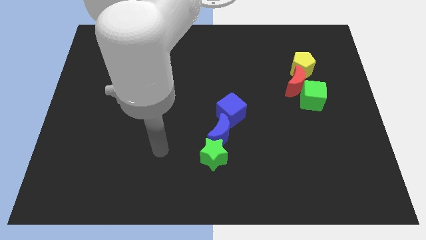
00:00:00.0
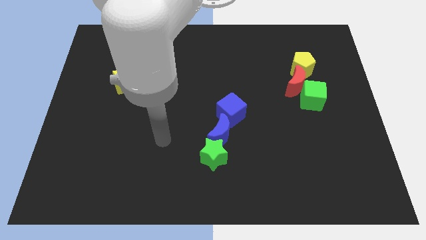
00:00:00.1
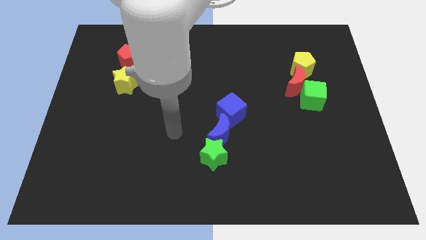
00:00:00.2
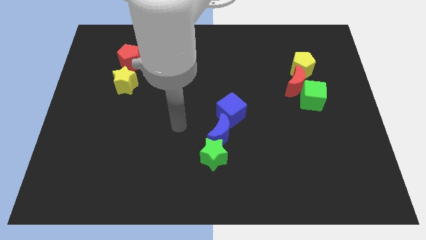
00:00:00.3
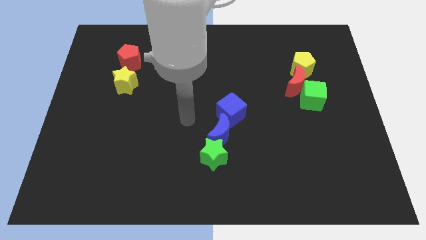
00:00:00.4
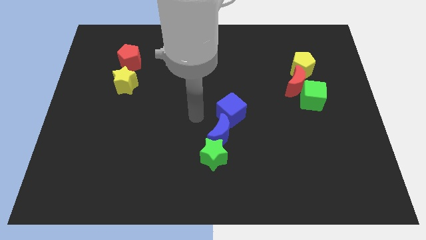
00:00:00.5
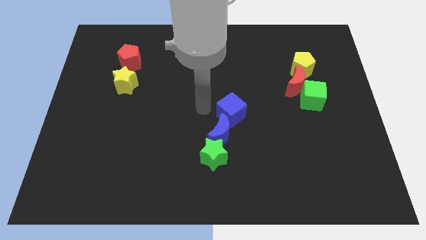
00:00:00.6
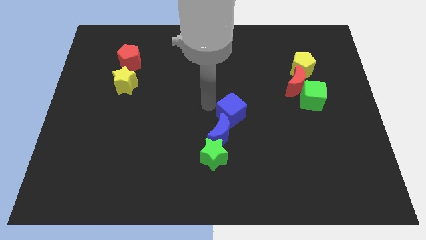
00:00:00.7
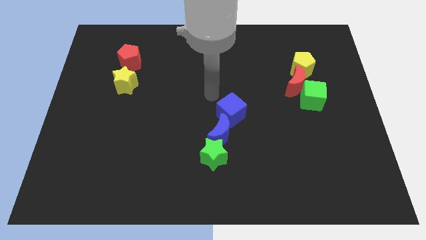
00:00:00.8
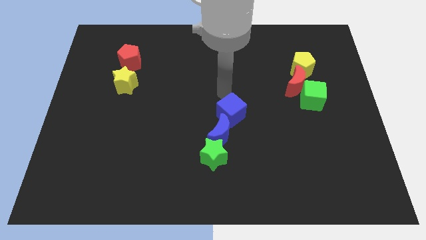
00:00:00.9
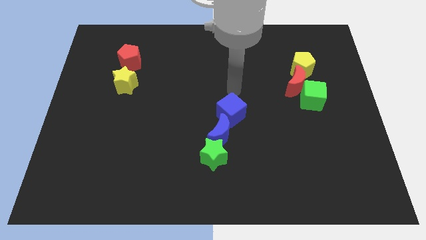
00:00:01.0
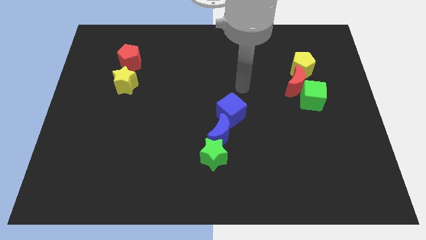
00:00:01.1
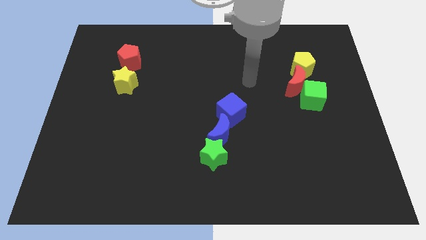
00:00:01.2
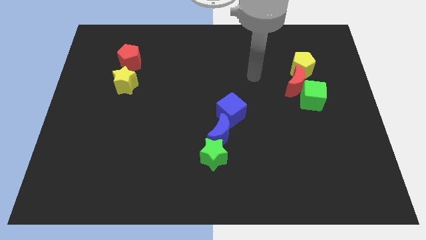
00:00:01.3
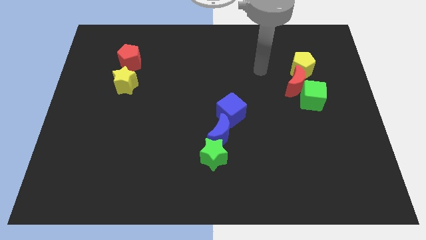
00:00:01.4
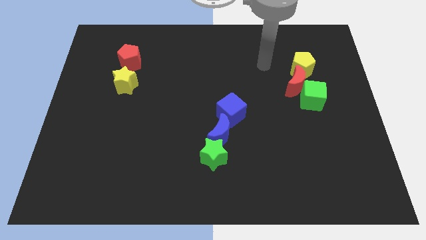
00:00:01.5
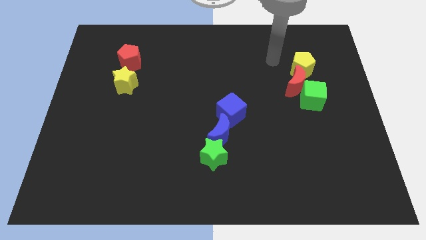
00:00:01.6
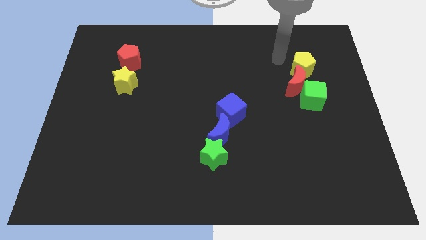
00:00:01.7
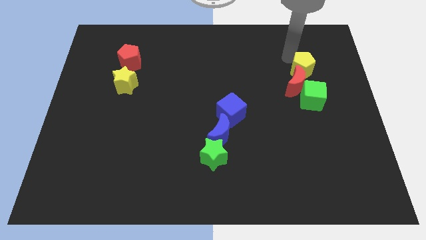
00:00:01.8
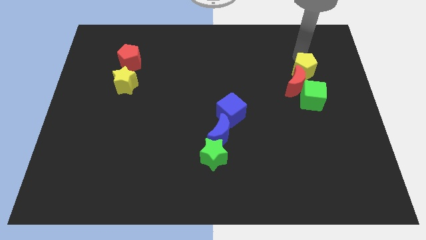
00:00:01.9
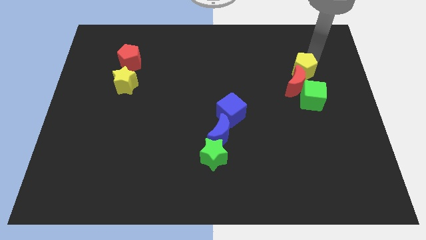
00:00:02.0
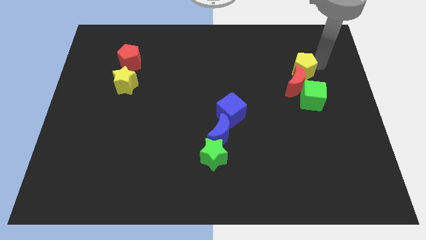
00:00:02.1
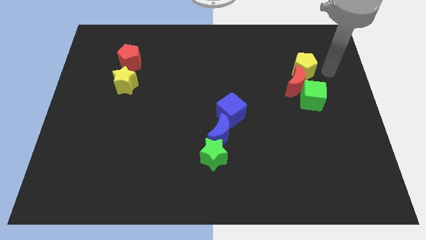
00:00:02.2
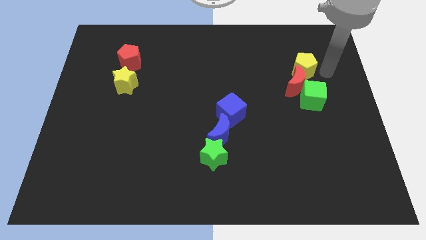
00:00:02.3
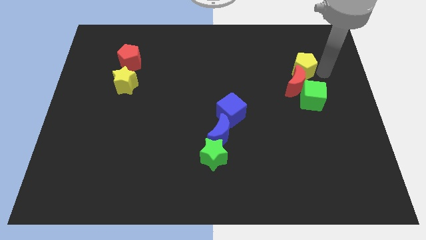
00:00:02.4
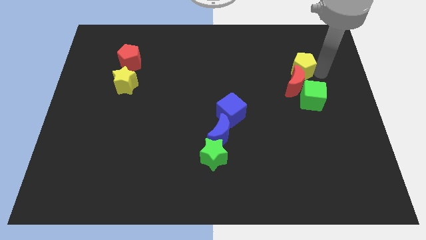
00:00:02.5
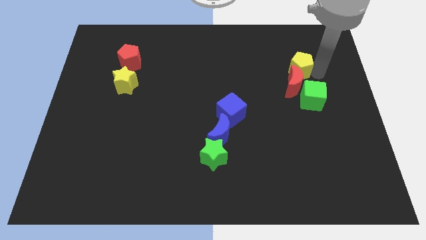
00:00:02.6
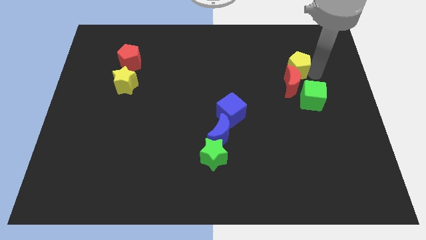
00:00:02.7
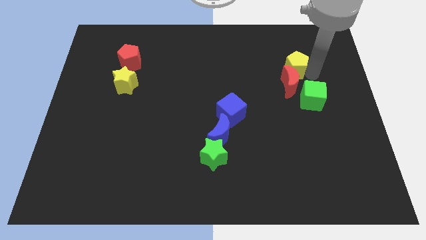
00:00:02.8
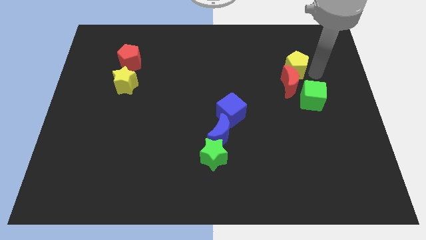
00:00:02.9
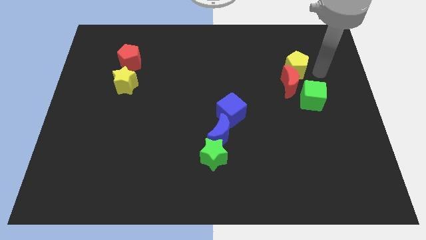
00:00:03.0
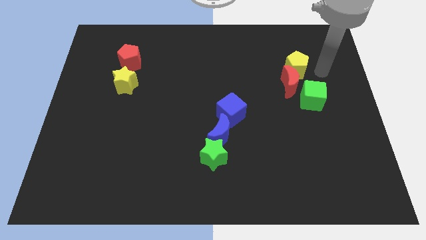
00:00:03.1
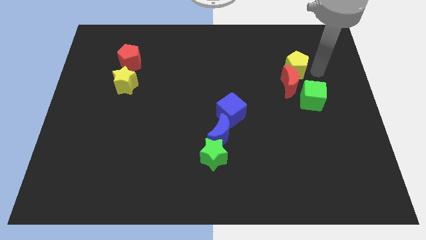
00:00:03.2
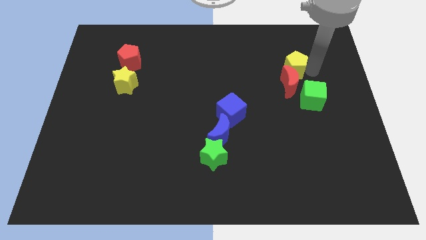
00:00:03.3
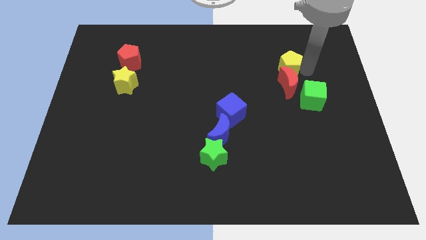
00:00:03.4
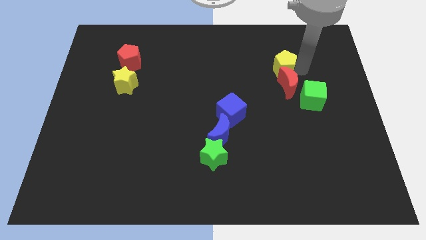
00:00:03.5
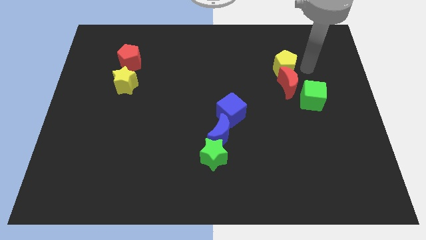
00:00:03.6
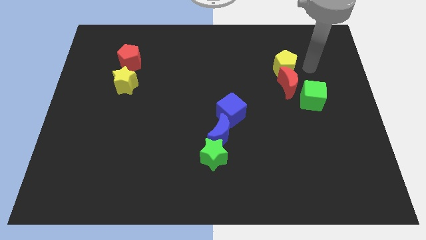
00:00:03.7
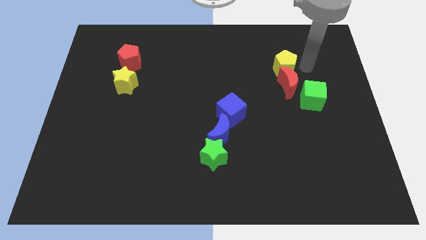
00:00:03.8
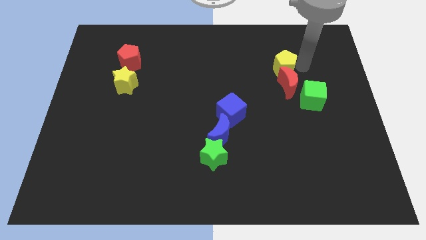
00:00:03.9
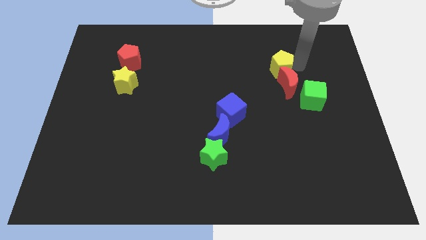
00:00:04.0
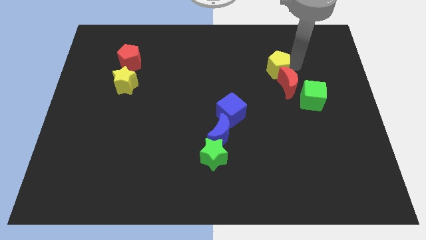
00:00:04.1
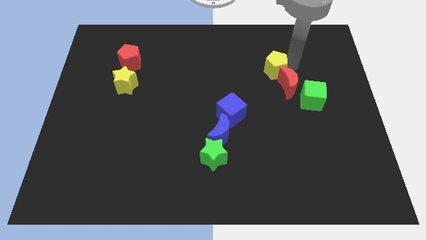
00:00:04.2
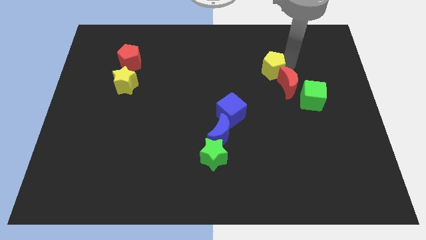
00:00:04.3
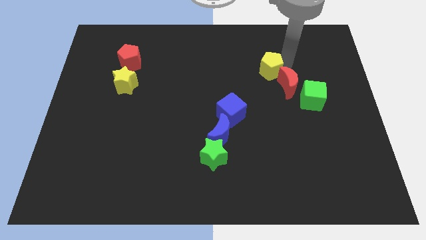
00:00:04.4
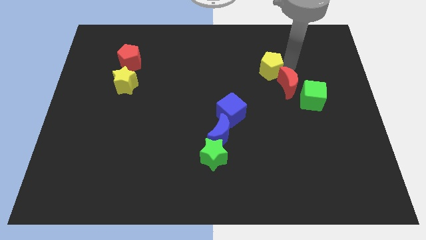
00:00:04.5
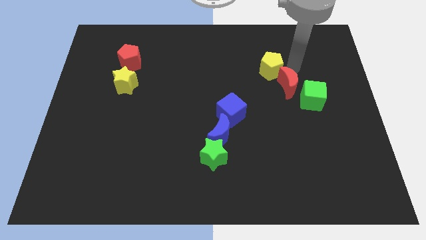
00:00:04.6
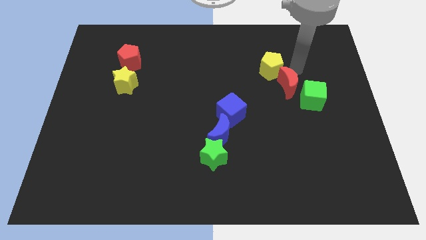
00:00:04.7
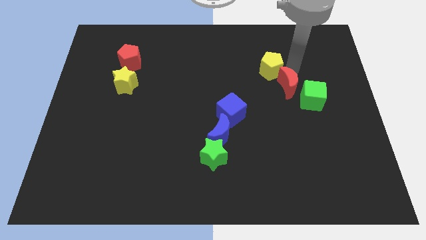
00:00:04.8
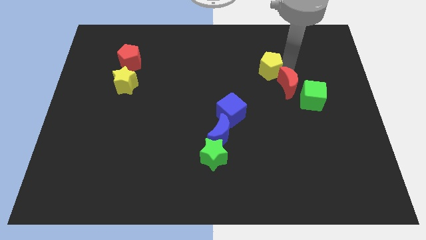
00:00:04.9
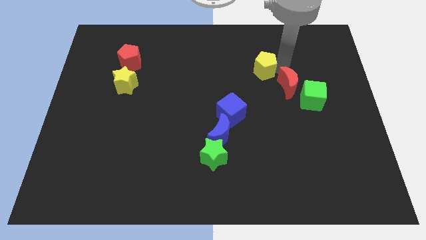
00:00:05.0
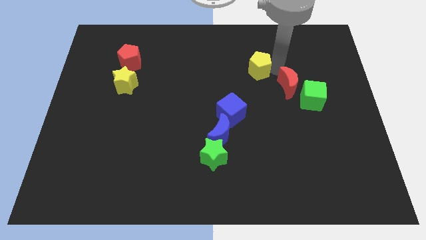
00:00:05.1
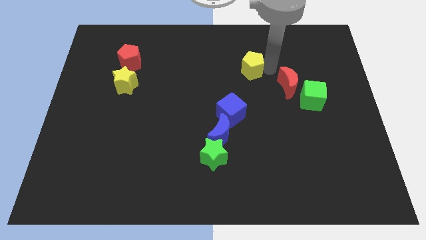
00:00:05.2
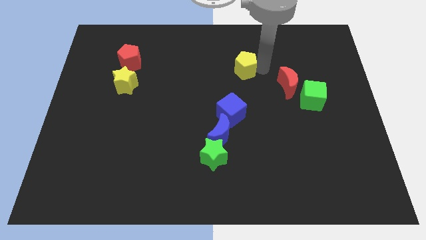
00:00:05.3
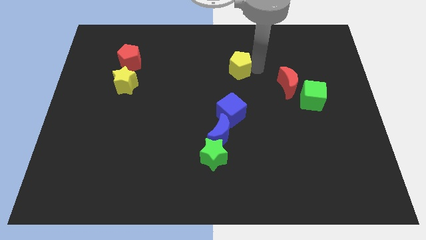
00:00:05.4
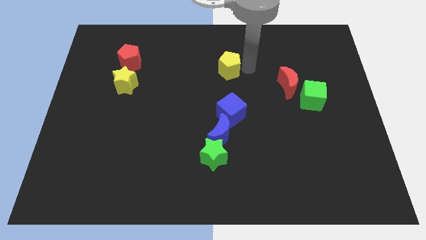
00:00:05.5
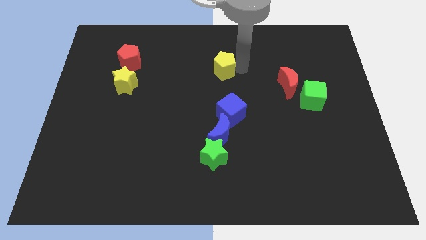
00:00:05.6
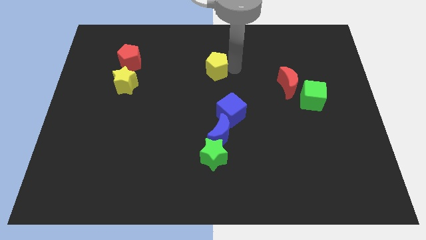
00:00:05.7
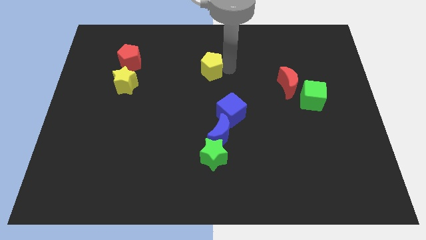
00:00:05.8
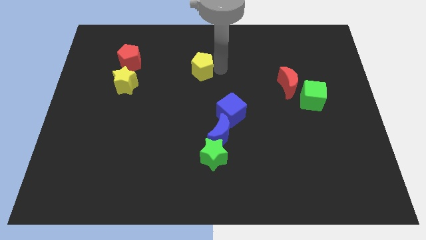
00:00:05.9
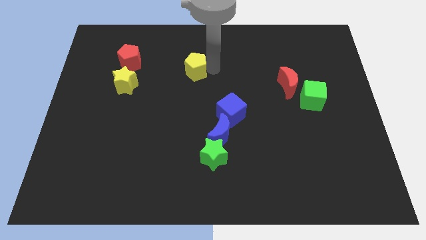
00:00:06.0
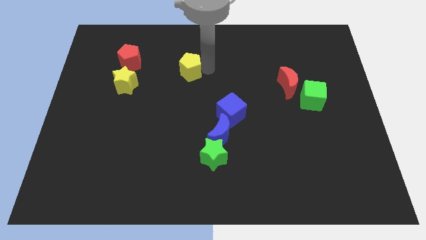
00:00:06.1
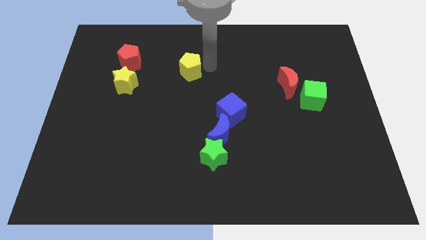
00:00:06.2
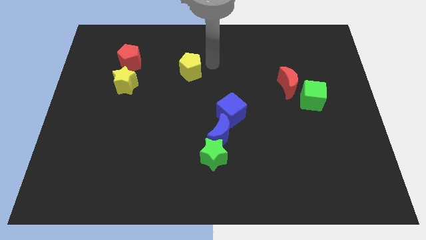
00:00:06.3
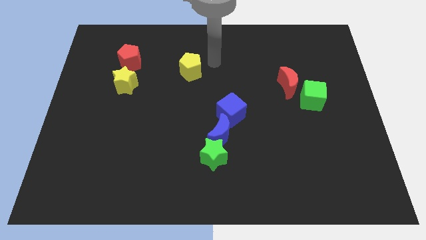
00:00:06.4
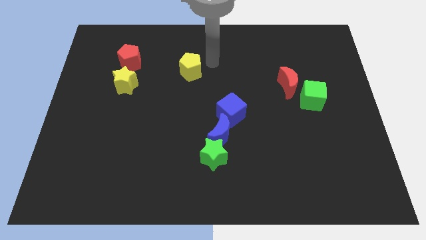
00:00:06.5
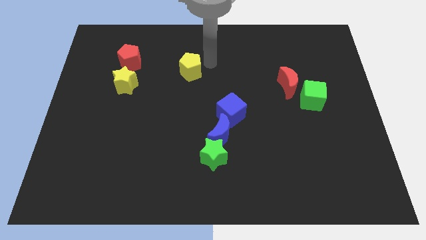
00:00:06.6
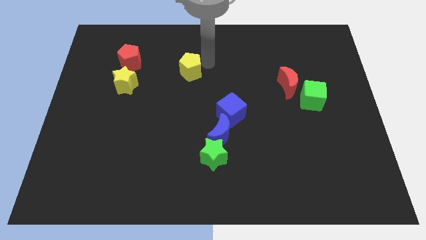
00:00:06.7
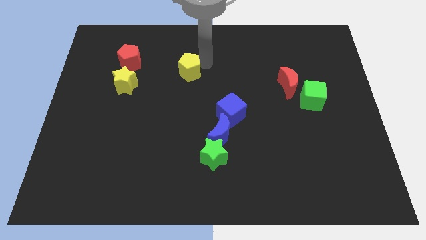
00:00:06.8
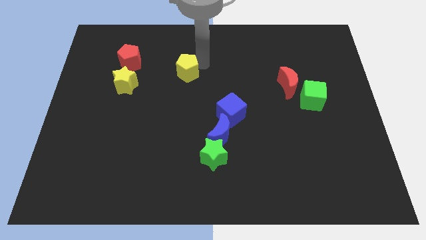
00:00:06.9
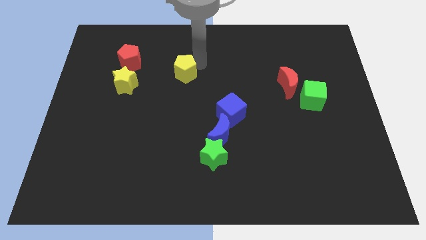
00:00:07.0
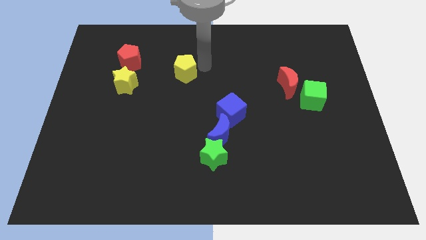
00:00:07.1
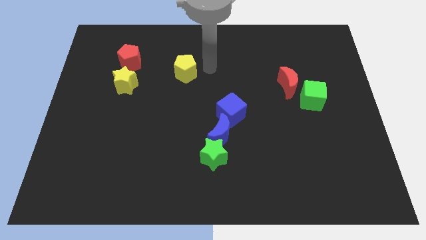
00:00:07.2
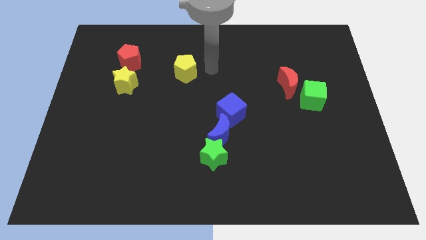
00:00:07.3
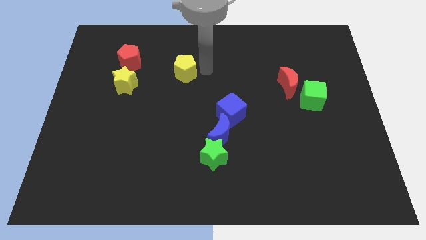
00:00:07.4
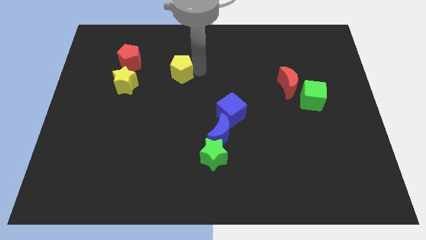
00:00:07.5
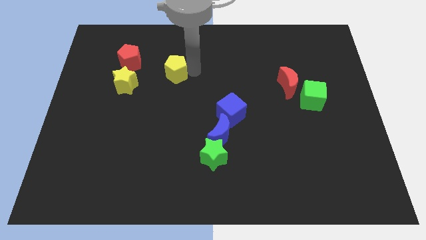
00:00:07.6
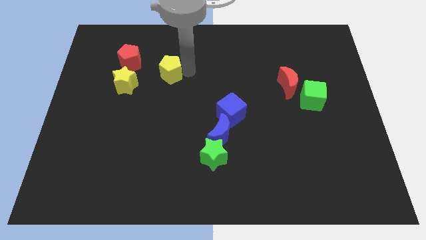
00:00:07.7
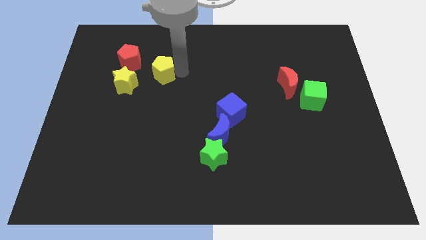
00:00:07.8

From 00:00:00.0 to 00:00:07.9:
slide the yellow pentagon to the bottom right of the red pentagon
